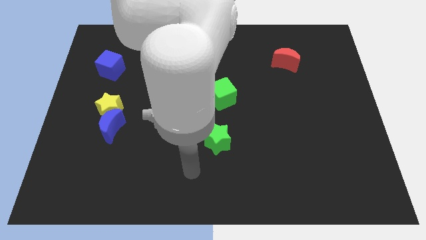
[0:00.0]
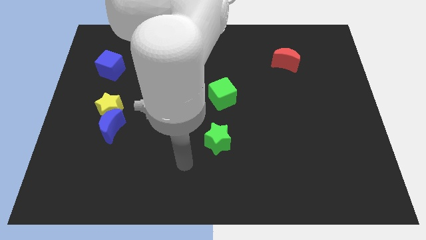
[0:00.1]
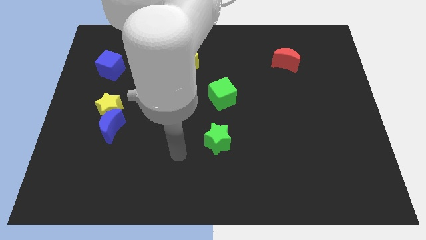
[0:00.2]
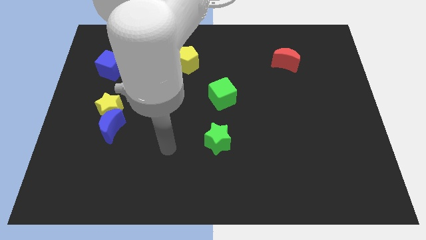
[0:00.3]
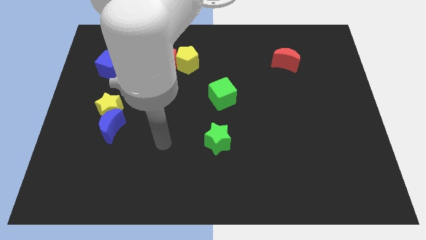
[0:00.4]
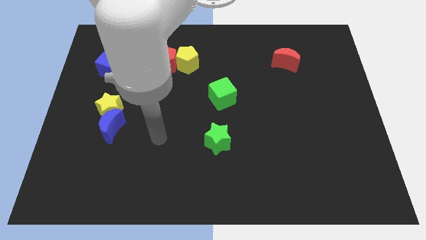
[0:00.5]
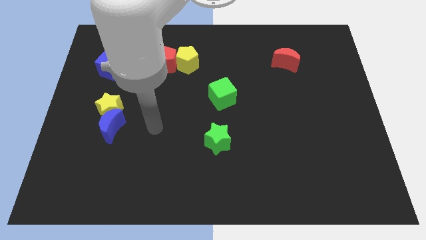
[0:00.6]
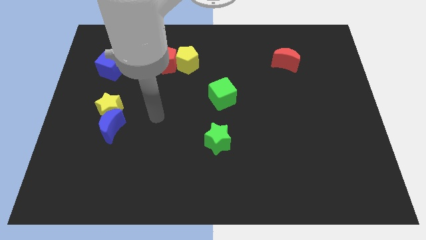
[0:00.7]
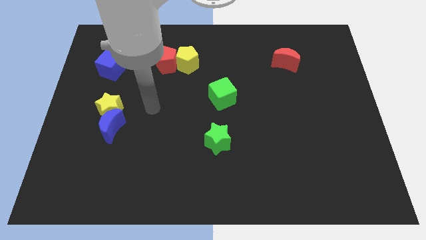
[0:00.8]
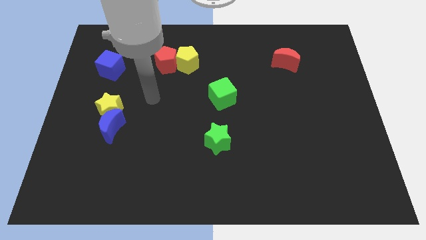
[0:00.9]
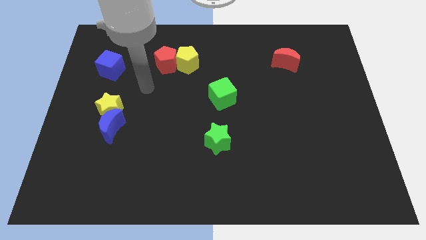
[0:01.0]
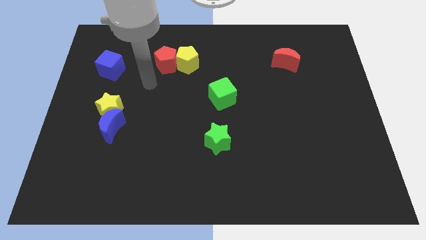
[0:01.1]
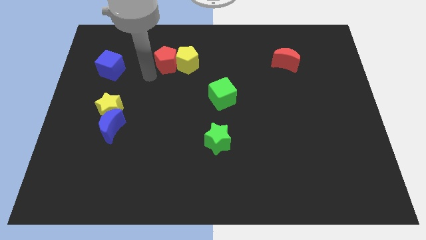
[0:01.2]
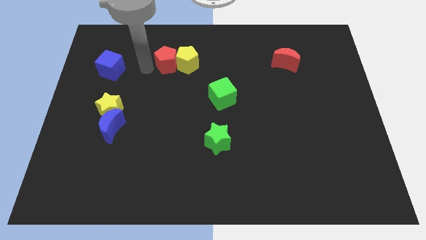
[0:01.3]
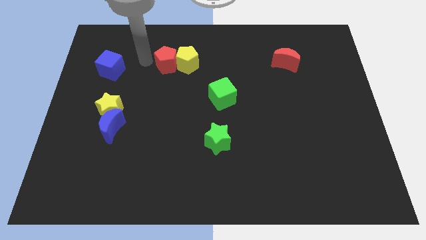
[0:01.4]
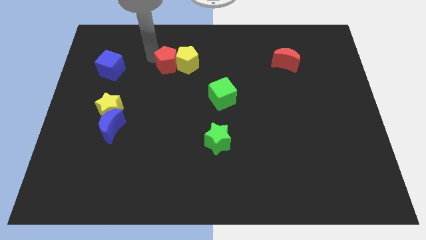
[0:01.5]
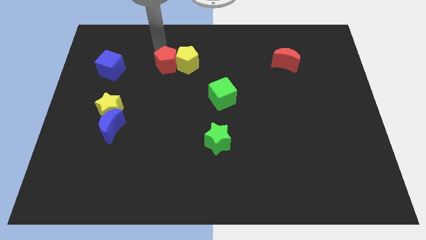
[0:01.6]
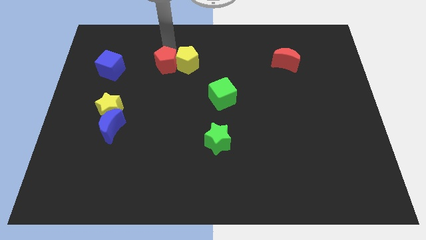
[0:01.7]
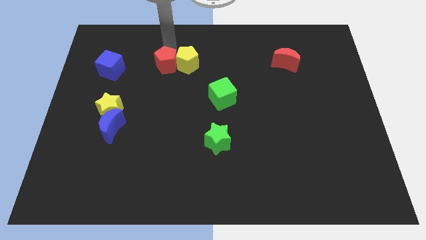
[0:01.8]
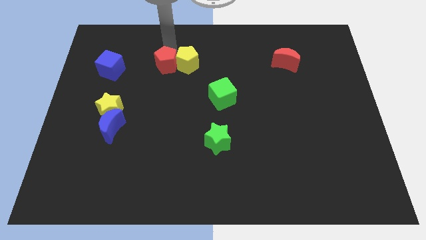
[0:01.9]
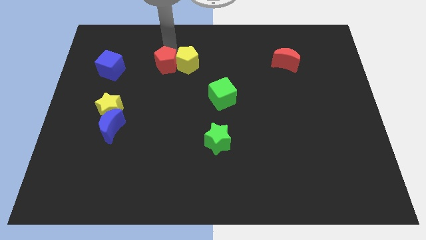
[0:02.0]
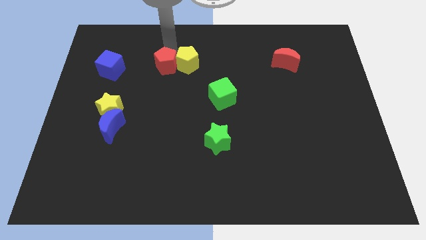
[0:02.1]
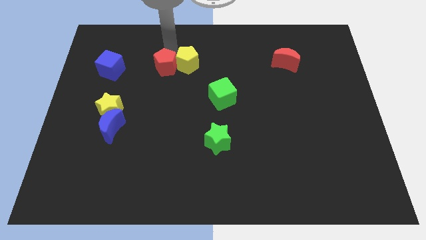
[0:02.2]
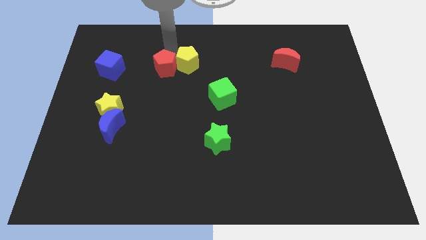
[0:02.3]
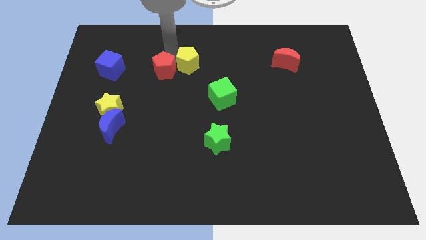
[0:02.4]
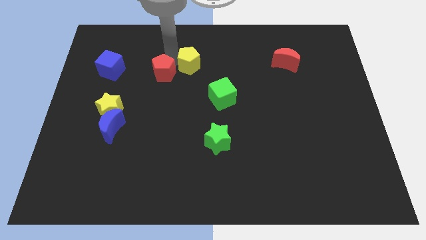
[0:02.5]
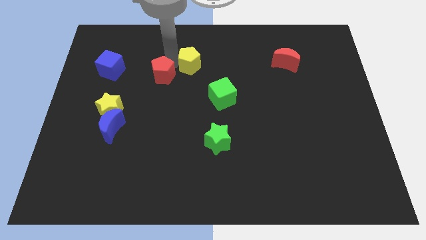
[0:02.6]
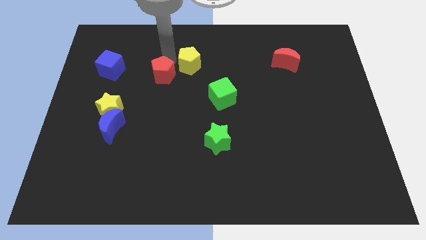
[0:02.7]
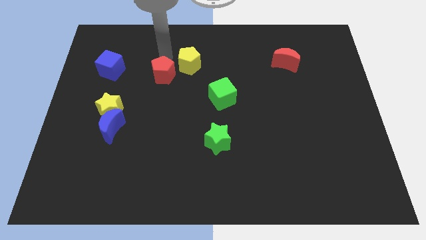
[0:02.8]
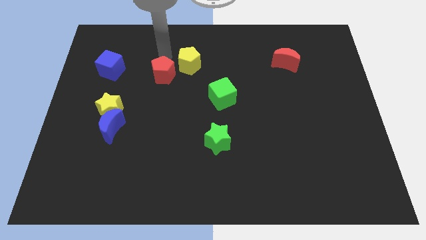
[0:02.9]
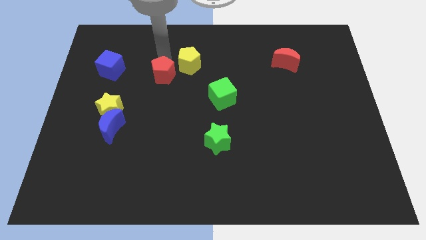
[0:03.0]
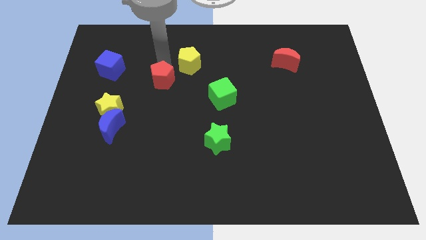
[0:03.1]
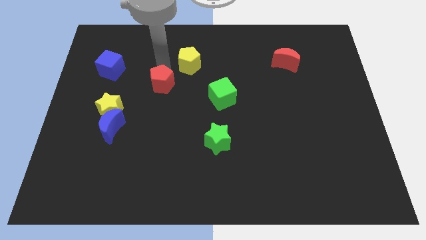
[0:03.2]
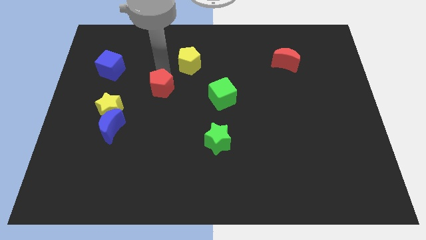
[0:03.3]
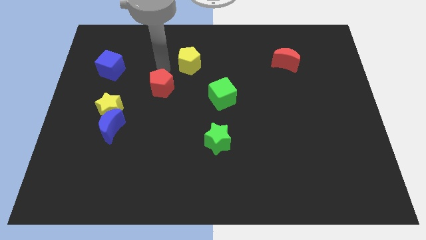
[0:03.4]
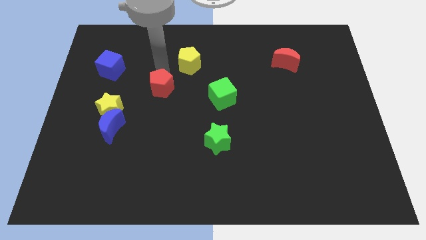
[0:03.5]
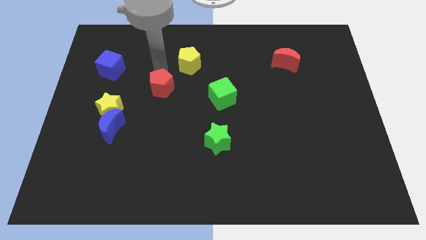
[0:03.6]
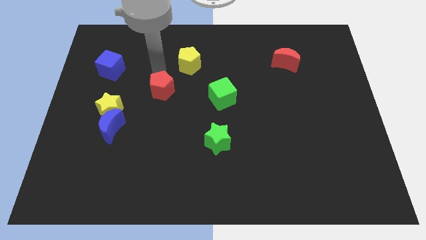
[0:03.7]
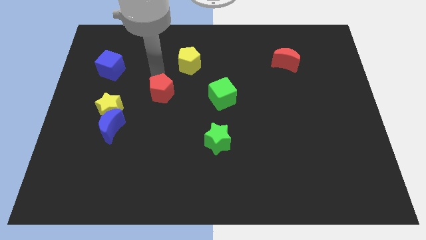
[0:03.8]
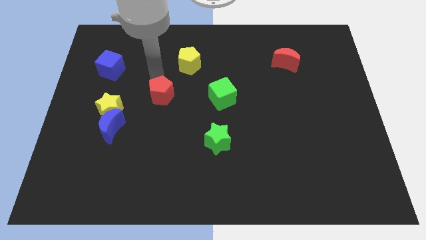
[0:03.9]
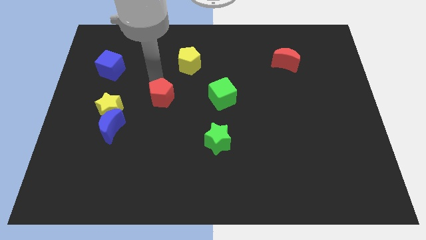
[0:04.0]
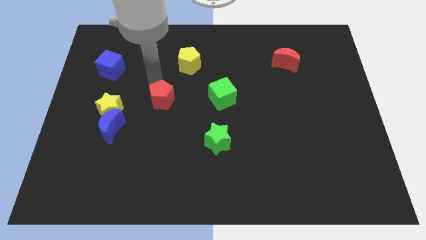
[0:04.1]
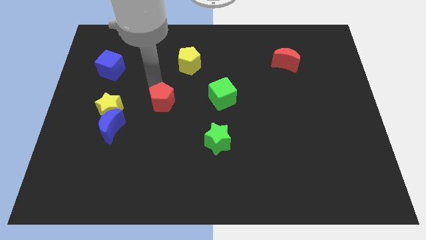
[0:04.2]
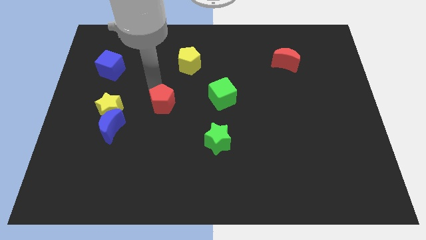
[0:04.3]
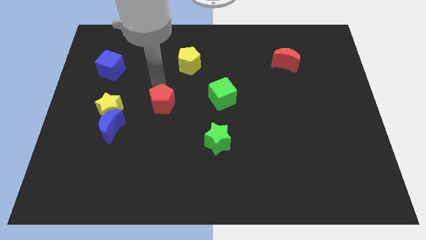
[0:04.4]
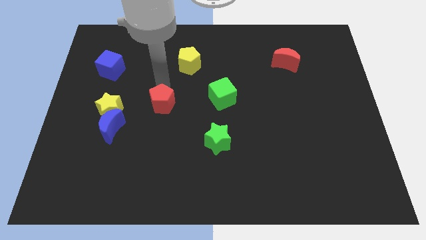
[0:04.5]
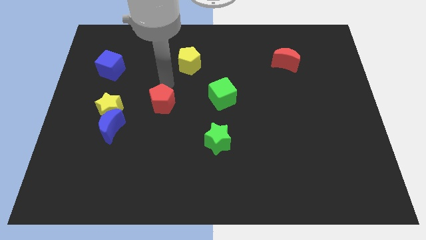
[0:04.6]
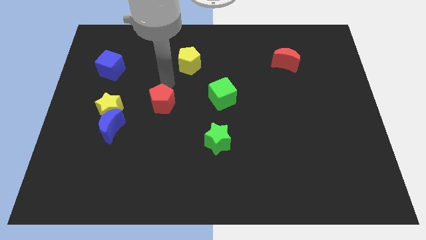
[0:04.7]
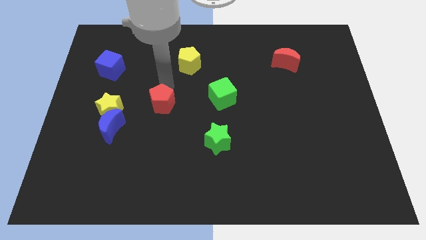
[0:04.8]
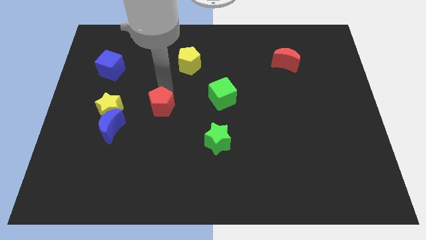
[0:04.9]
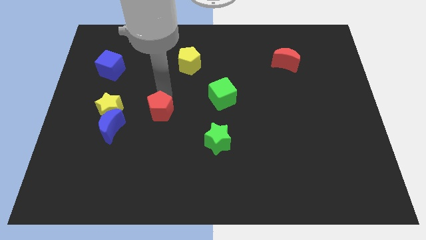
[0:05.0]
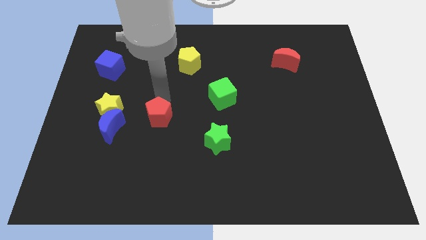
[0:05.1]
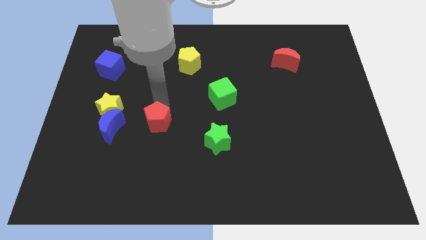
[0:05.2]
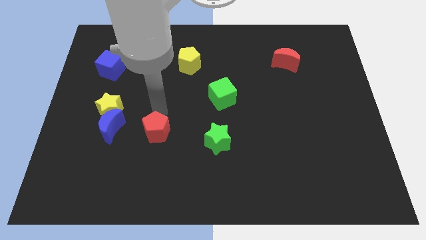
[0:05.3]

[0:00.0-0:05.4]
slide the red pentagon downwards

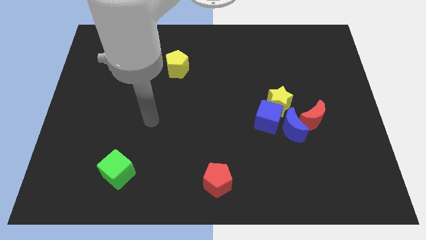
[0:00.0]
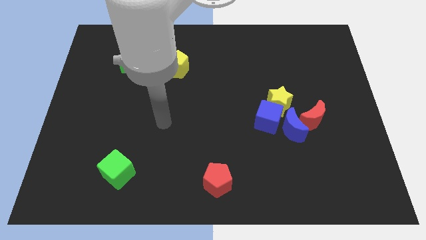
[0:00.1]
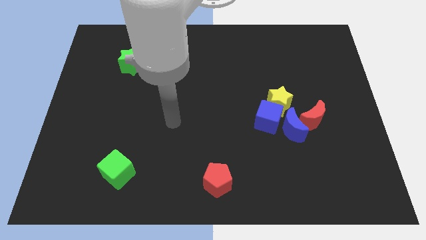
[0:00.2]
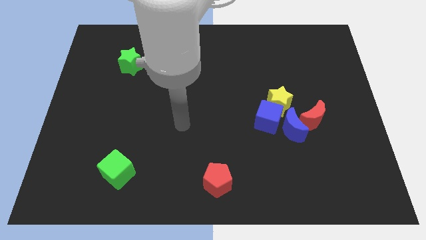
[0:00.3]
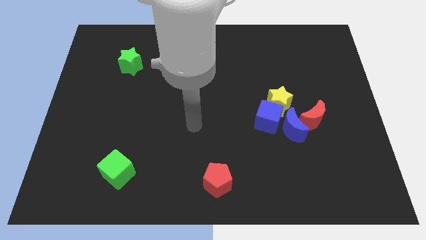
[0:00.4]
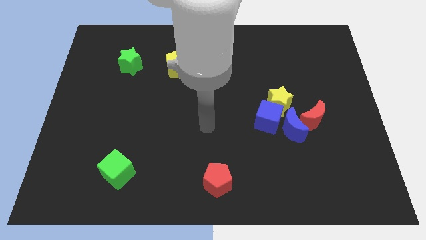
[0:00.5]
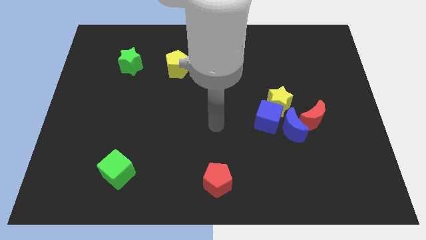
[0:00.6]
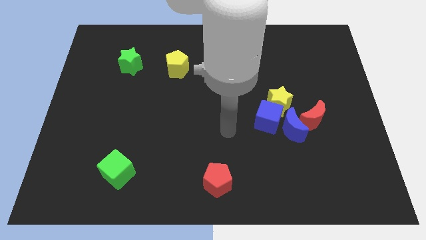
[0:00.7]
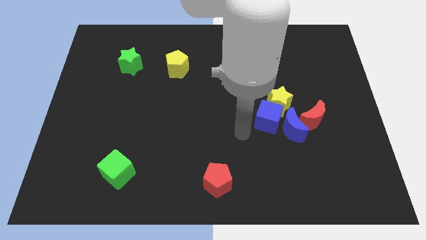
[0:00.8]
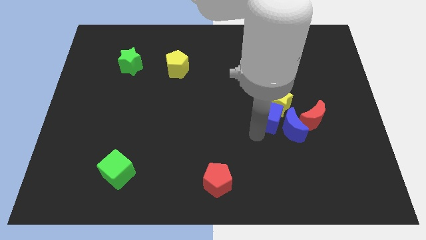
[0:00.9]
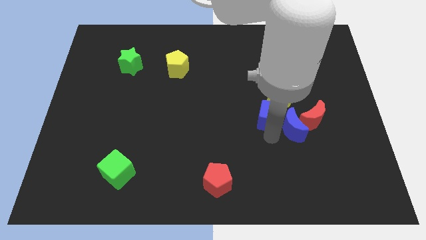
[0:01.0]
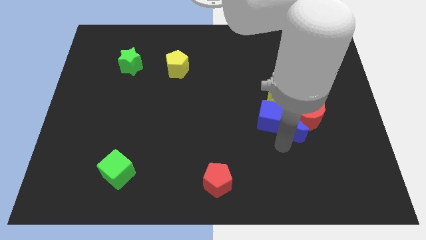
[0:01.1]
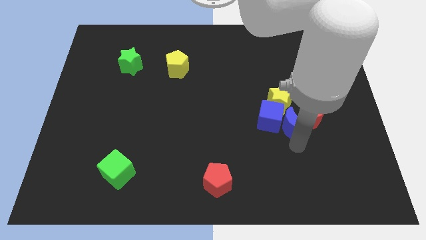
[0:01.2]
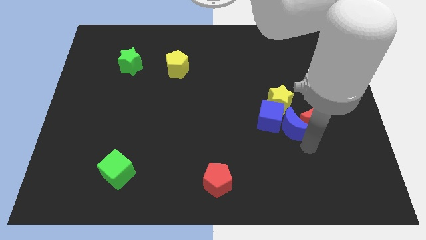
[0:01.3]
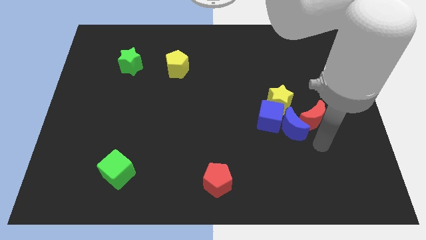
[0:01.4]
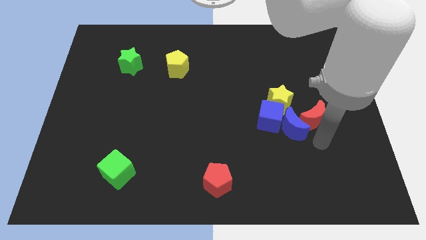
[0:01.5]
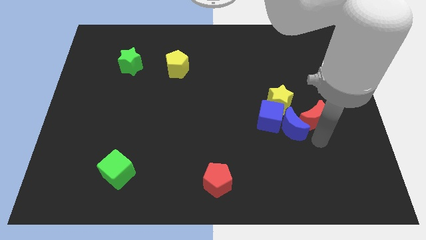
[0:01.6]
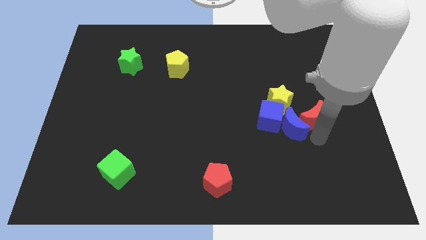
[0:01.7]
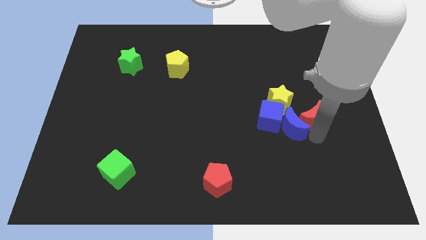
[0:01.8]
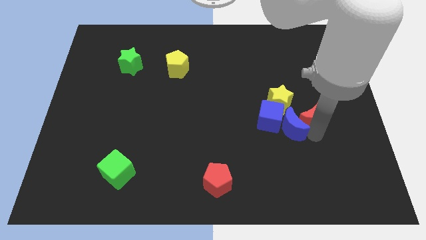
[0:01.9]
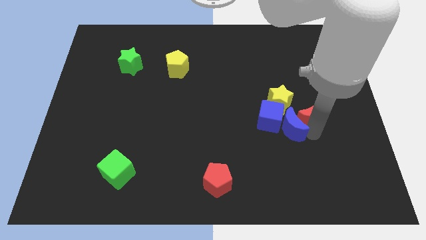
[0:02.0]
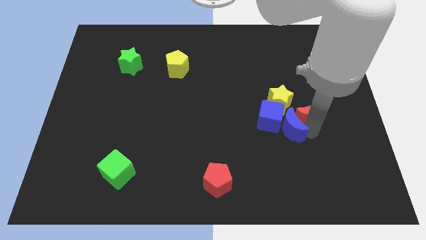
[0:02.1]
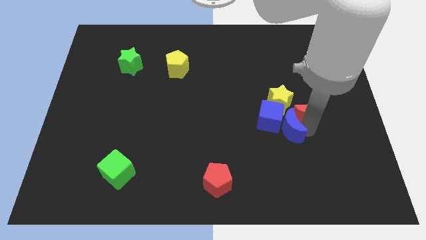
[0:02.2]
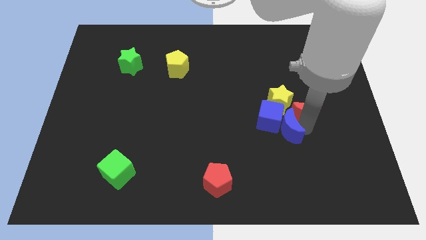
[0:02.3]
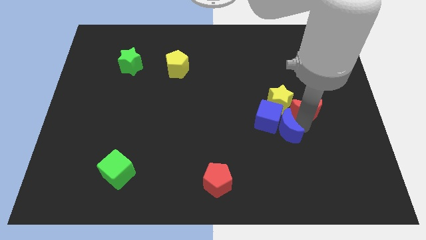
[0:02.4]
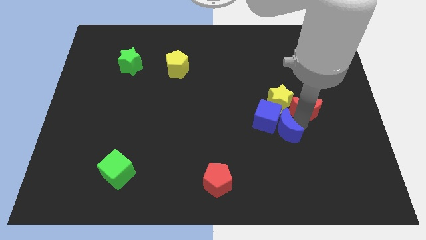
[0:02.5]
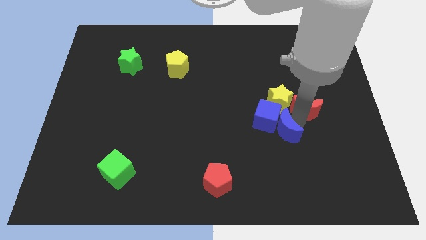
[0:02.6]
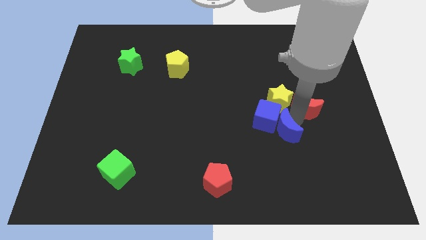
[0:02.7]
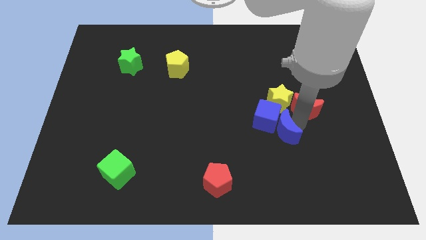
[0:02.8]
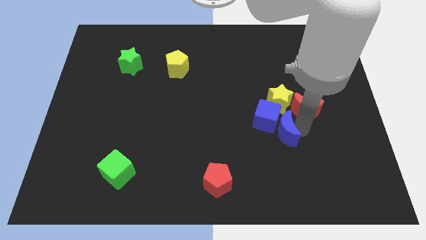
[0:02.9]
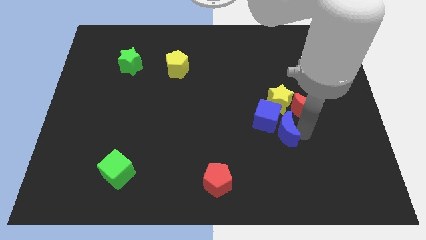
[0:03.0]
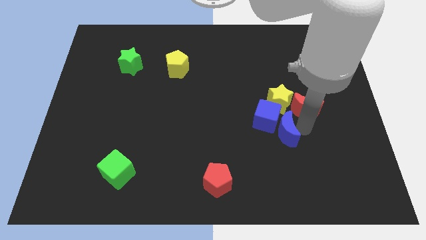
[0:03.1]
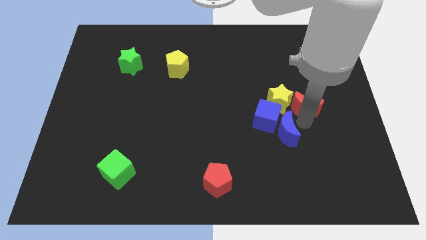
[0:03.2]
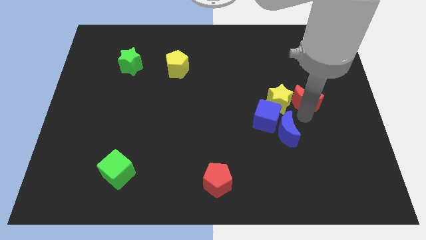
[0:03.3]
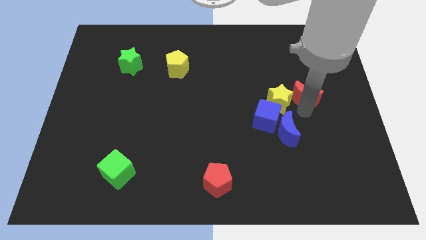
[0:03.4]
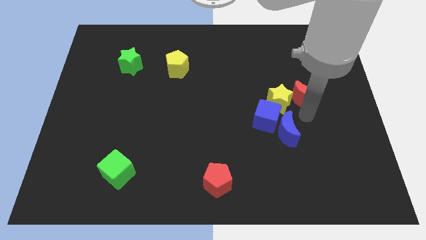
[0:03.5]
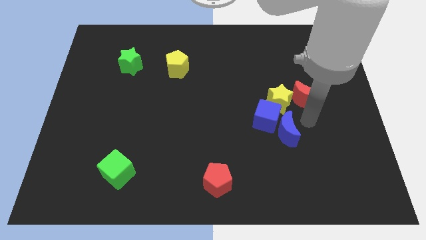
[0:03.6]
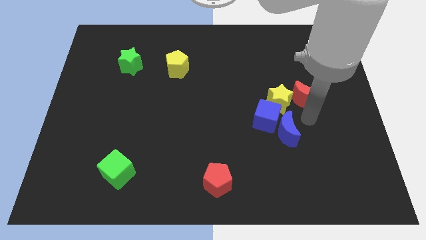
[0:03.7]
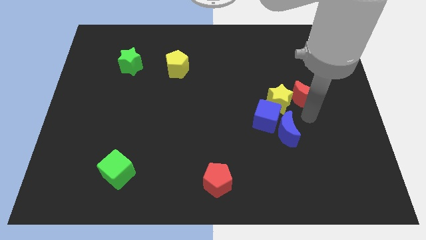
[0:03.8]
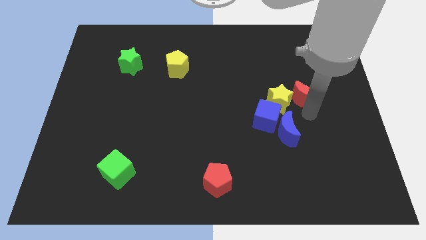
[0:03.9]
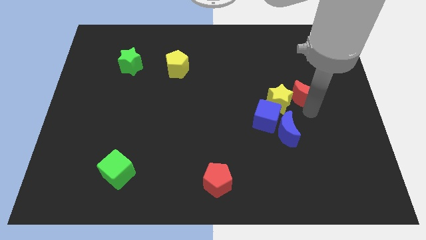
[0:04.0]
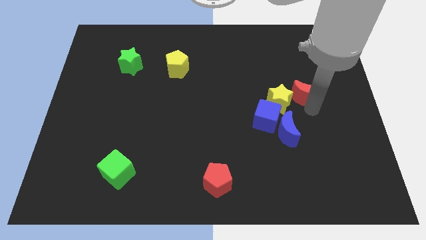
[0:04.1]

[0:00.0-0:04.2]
move the red moon a little bit upwards
